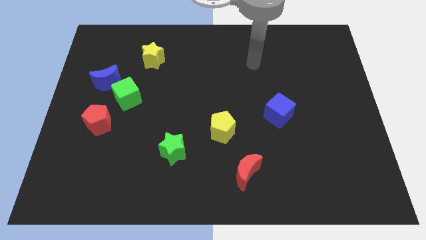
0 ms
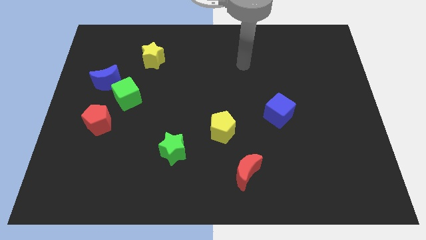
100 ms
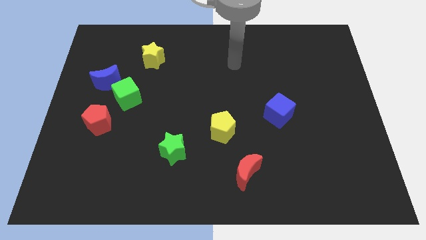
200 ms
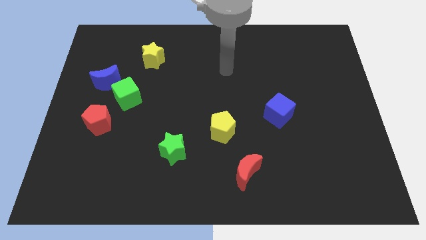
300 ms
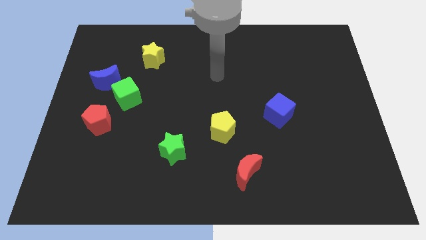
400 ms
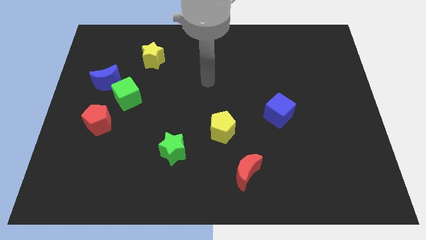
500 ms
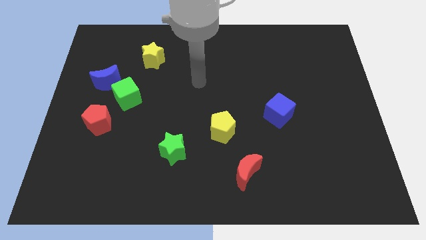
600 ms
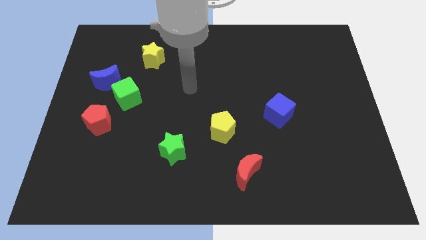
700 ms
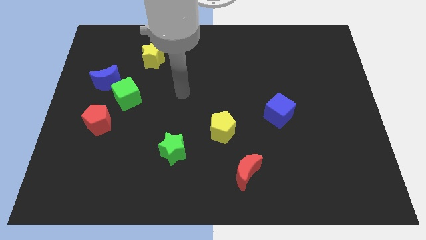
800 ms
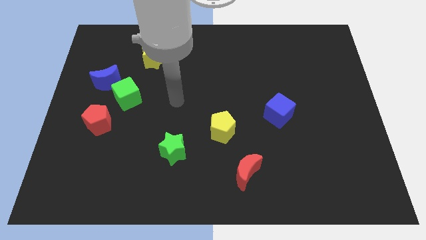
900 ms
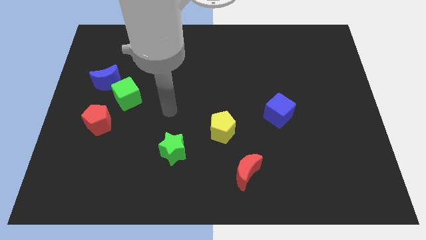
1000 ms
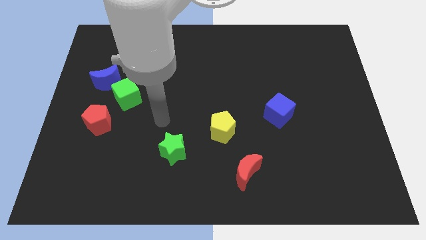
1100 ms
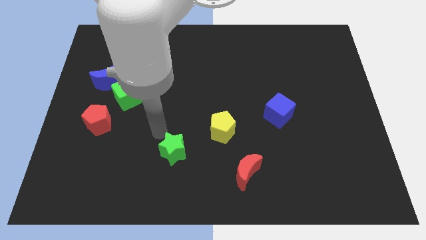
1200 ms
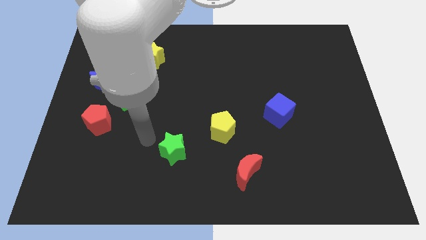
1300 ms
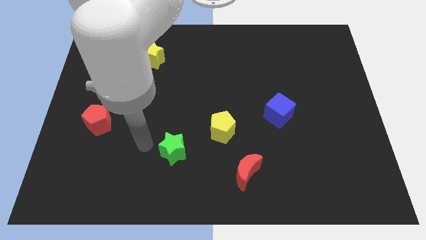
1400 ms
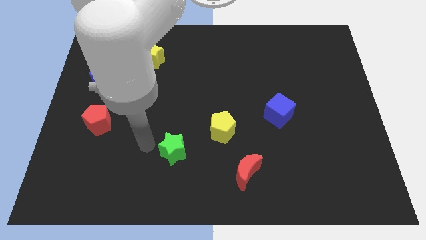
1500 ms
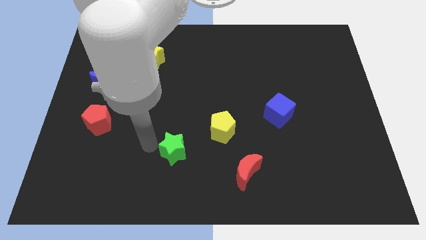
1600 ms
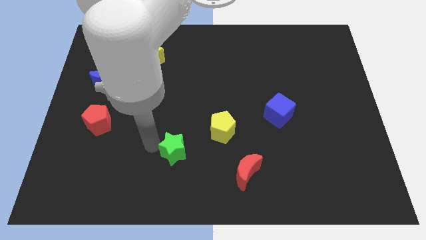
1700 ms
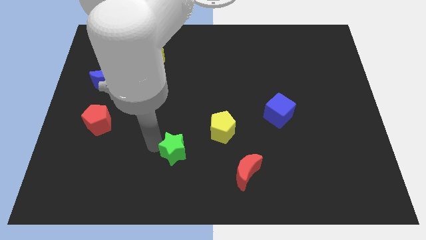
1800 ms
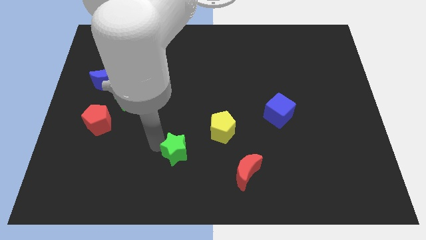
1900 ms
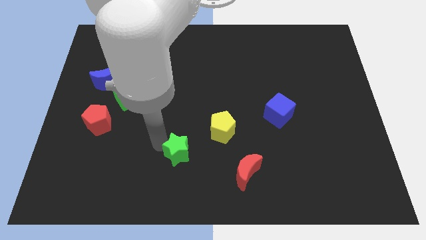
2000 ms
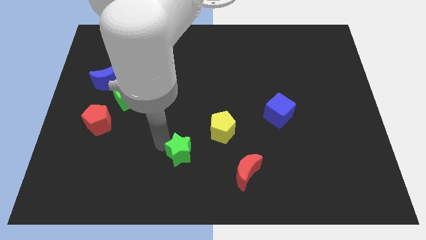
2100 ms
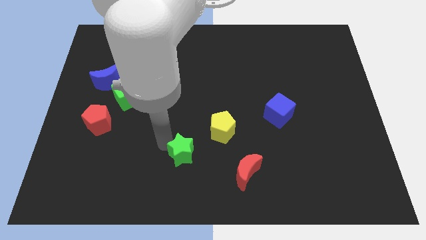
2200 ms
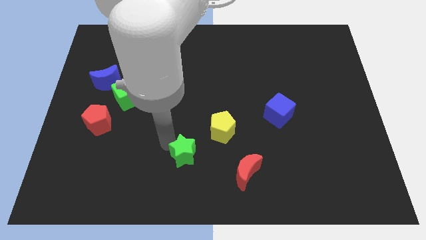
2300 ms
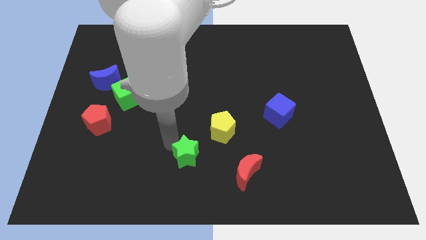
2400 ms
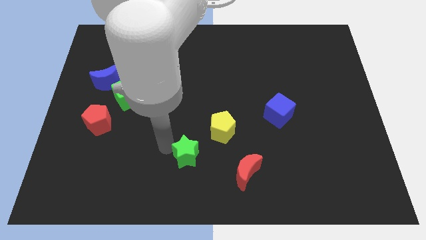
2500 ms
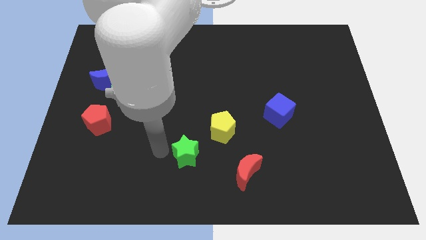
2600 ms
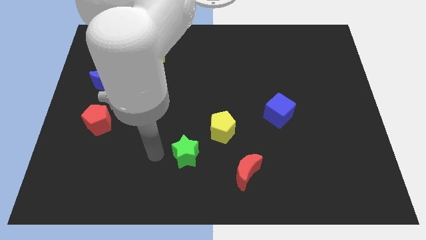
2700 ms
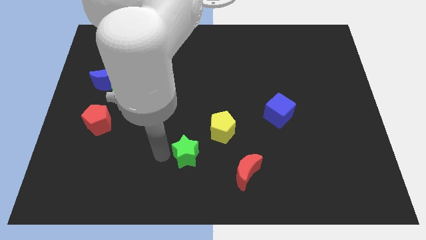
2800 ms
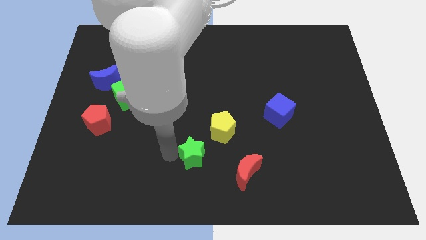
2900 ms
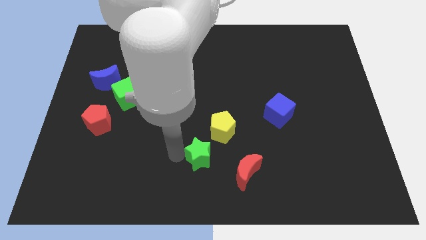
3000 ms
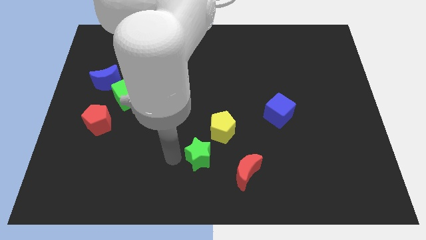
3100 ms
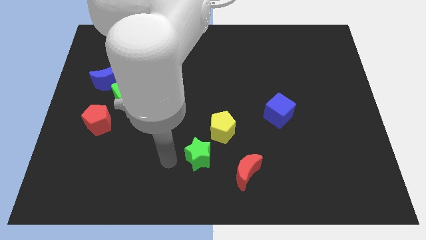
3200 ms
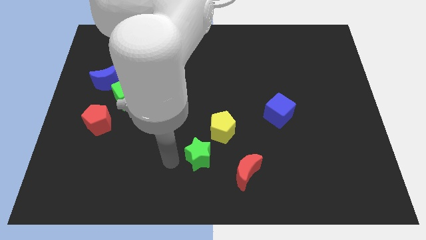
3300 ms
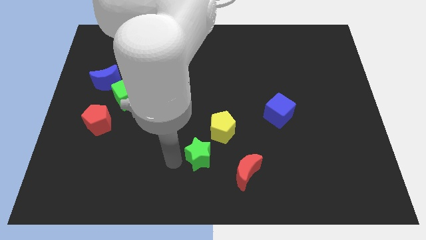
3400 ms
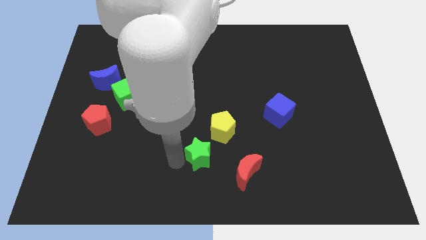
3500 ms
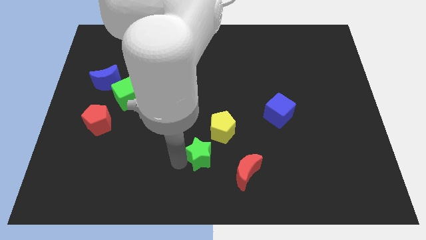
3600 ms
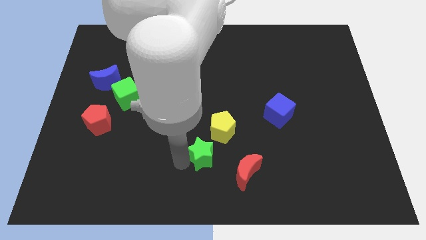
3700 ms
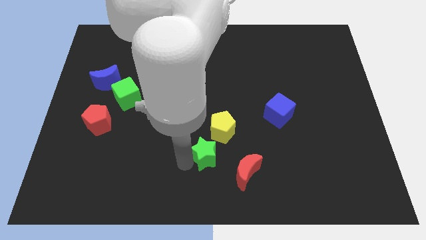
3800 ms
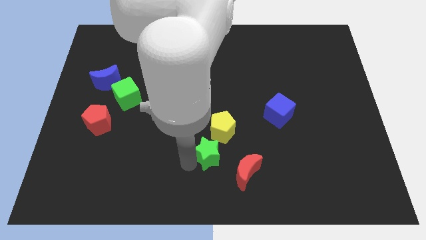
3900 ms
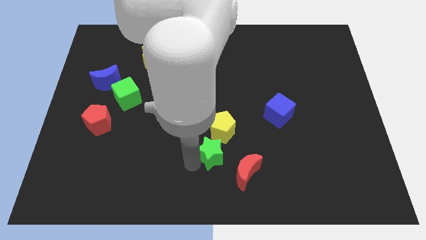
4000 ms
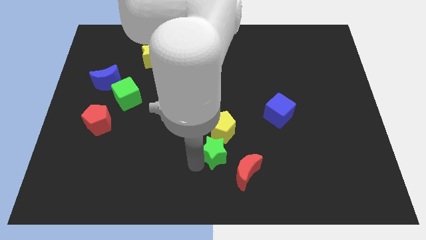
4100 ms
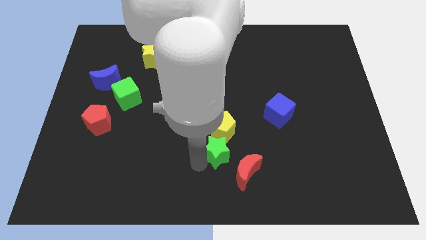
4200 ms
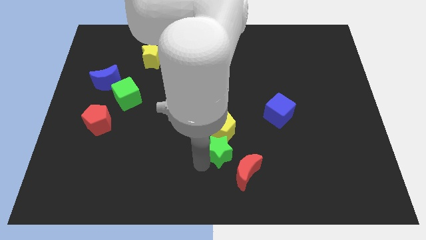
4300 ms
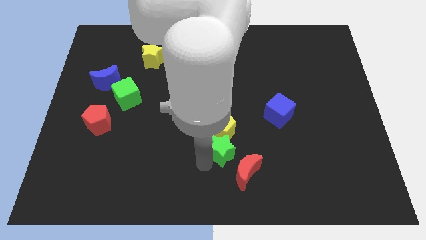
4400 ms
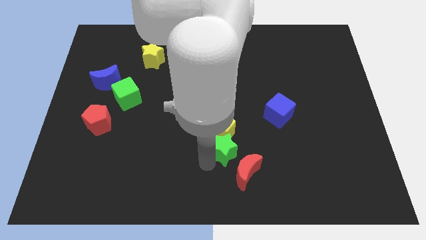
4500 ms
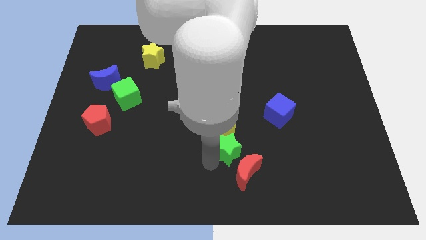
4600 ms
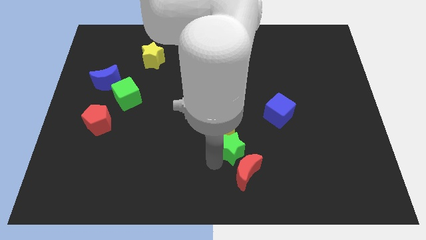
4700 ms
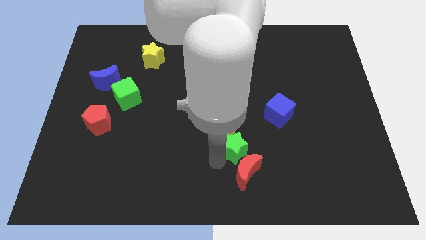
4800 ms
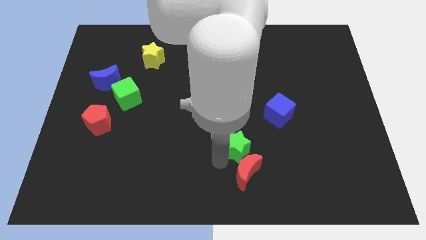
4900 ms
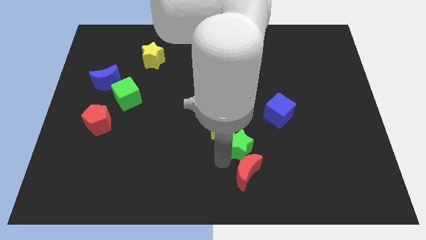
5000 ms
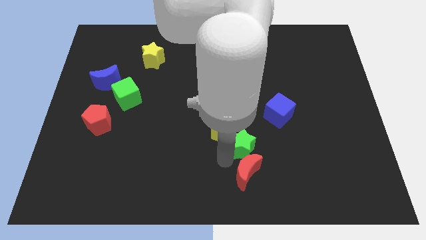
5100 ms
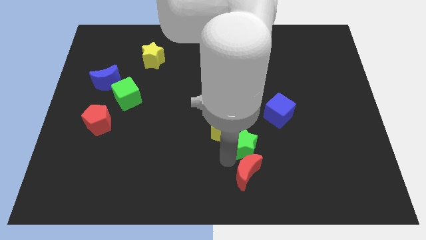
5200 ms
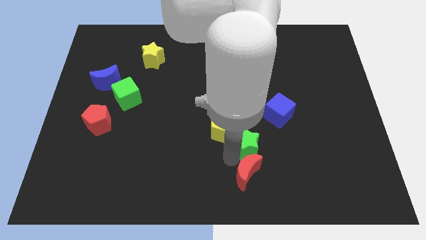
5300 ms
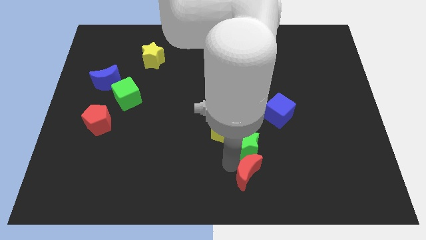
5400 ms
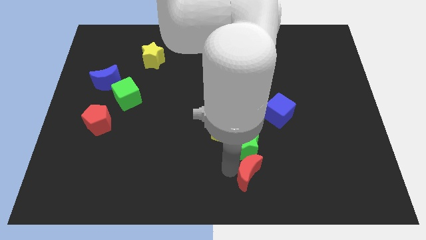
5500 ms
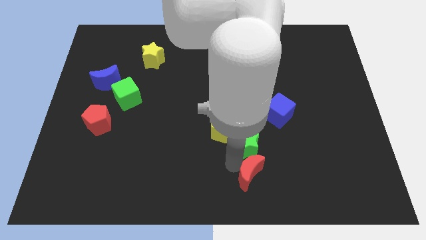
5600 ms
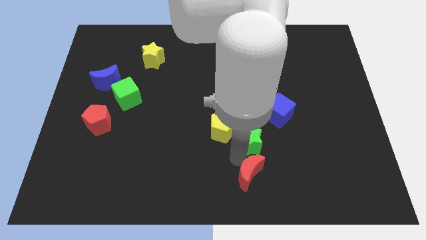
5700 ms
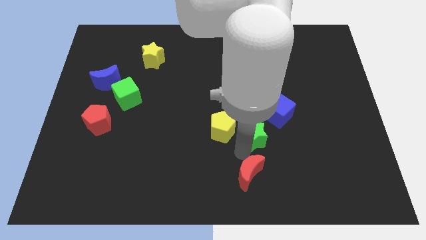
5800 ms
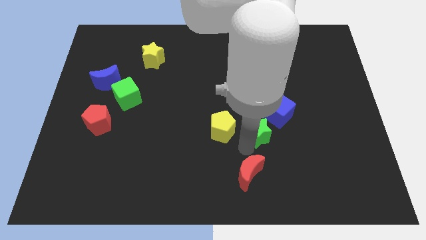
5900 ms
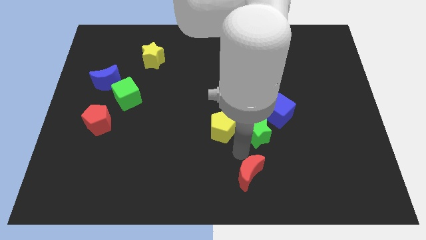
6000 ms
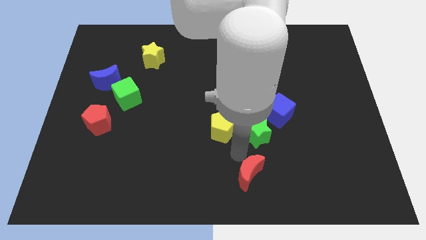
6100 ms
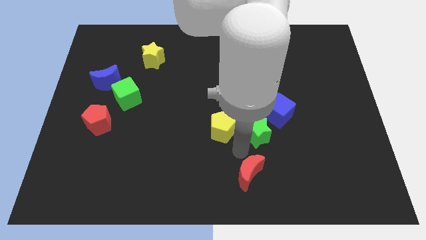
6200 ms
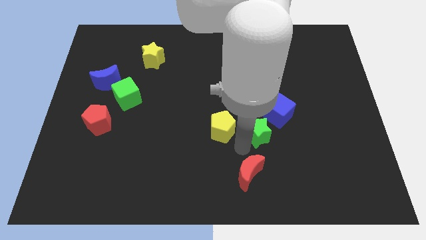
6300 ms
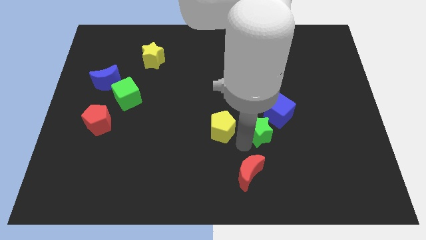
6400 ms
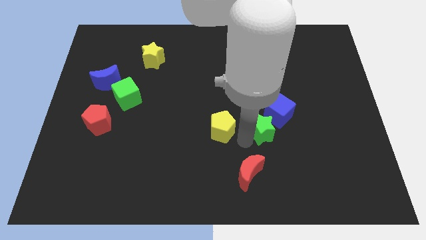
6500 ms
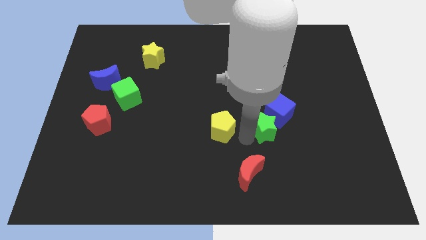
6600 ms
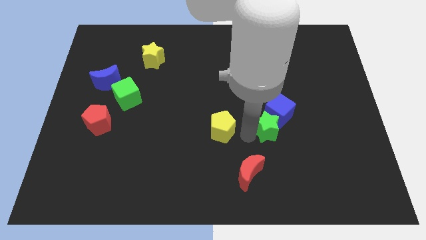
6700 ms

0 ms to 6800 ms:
move the green star next to the blue cube

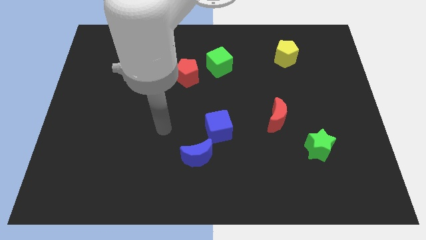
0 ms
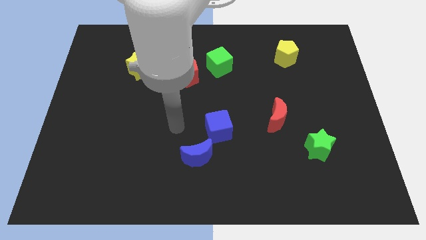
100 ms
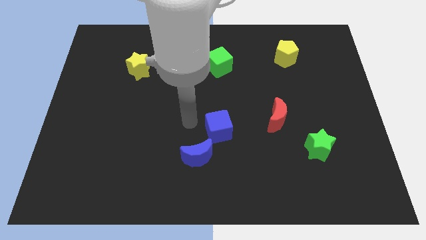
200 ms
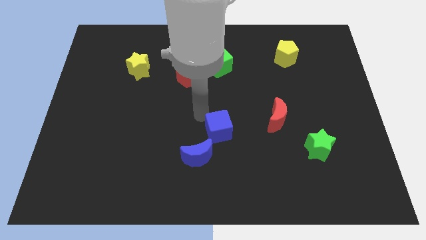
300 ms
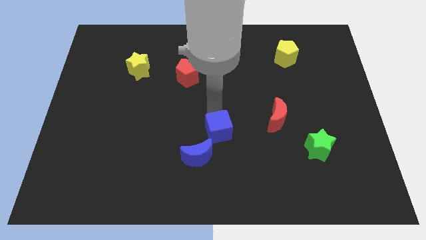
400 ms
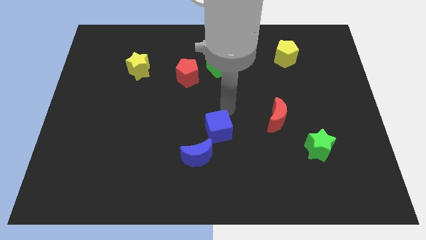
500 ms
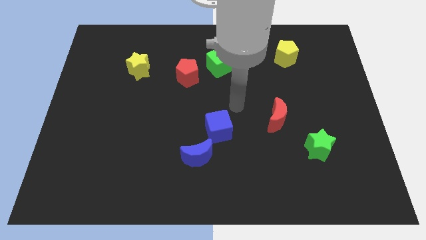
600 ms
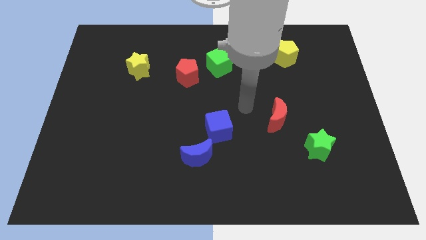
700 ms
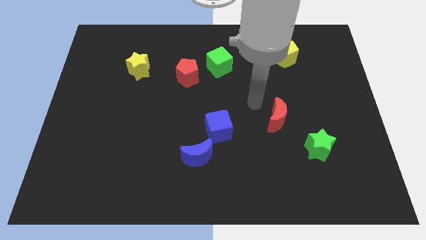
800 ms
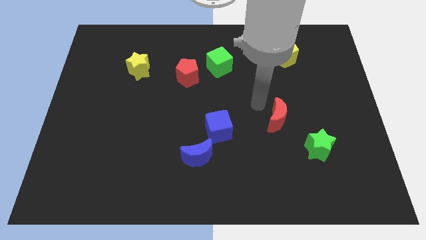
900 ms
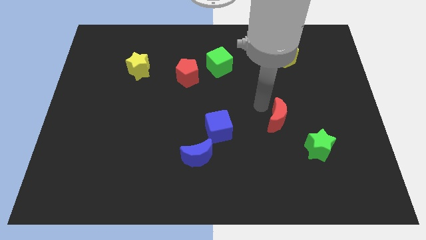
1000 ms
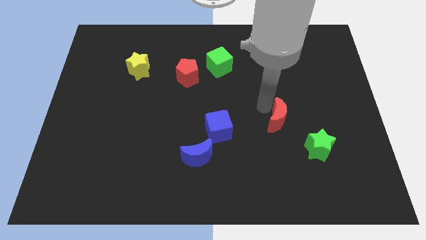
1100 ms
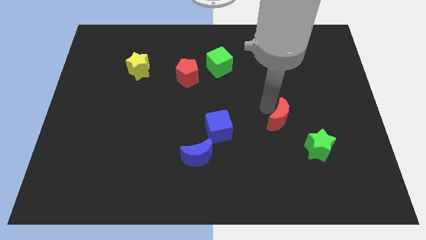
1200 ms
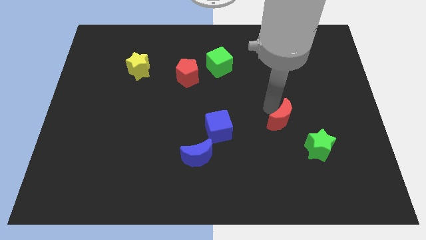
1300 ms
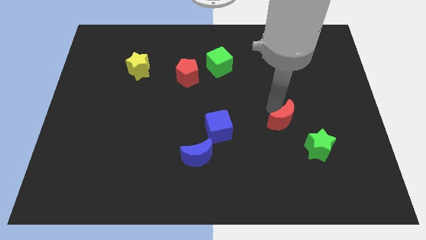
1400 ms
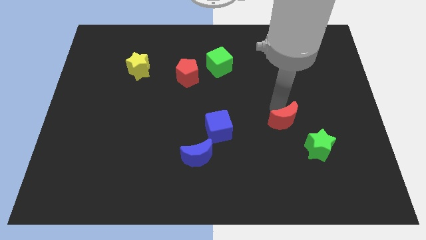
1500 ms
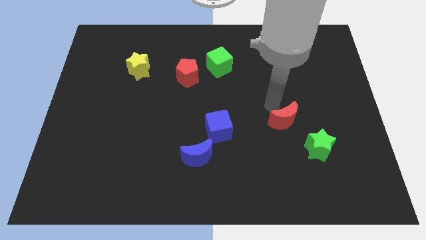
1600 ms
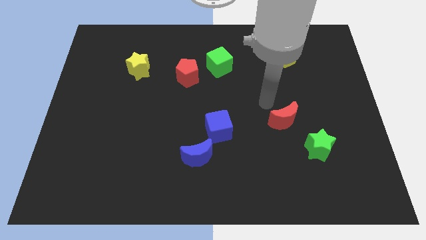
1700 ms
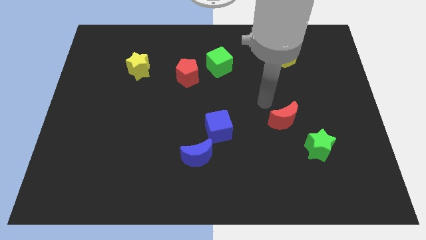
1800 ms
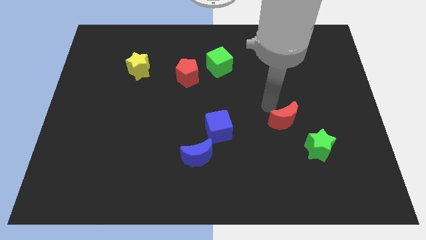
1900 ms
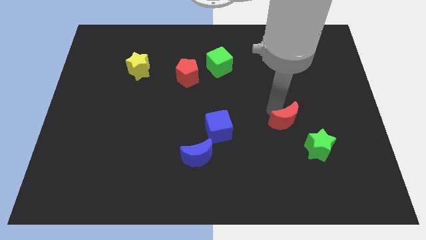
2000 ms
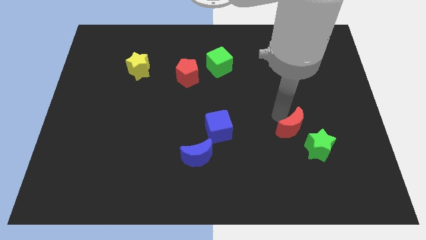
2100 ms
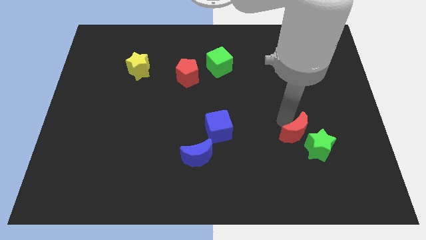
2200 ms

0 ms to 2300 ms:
put the red moon to the green star
